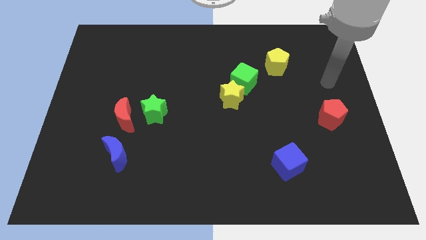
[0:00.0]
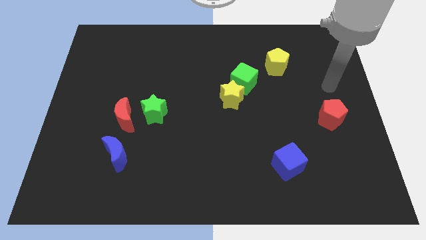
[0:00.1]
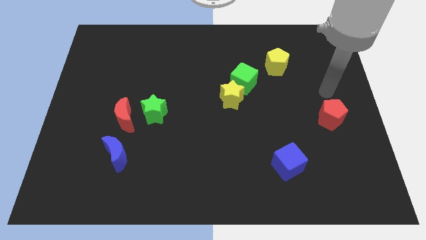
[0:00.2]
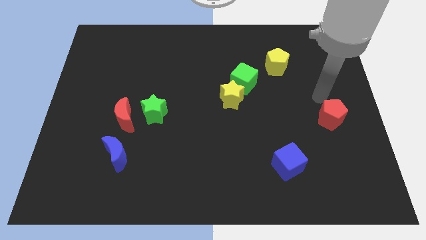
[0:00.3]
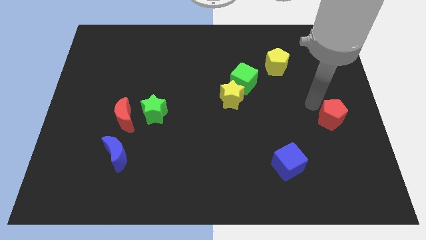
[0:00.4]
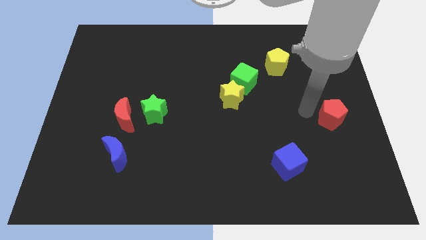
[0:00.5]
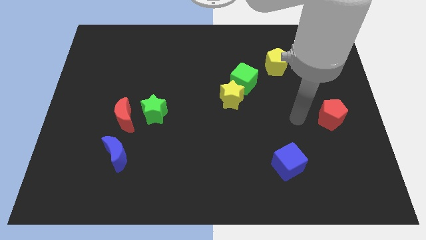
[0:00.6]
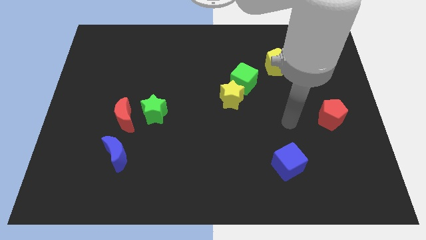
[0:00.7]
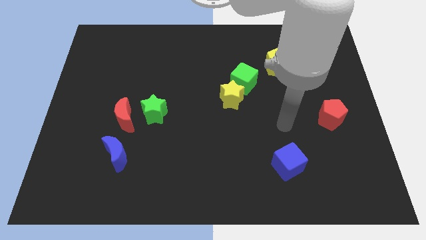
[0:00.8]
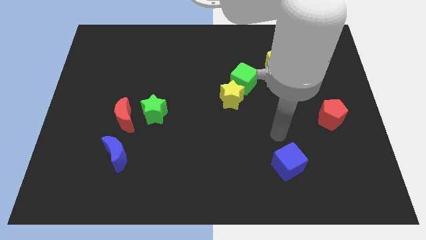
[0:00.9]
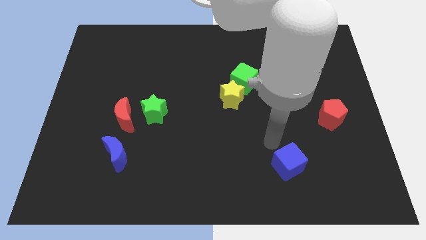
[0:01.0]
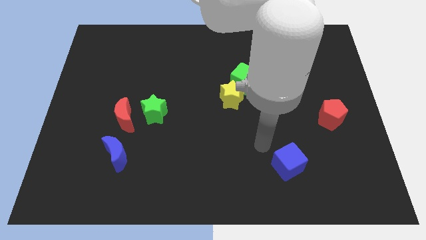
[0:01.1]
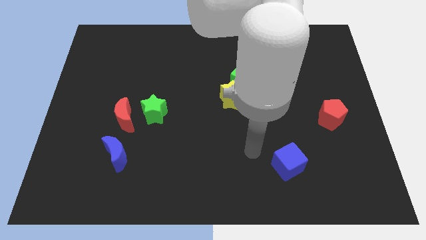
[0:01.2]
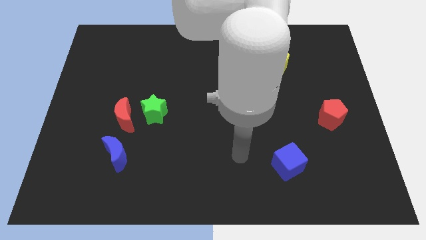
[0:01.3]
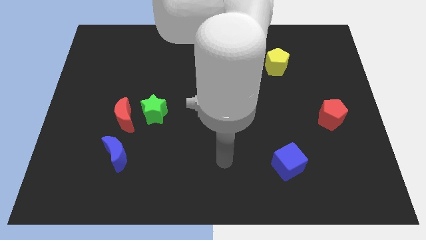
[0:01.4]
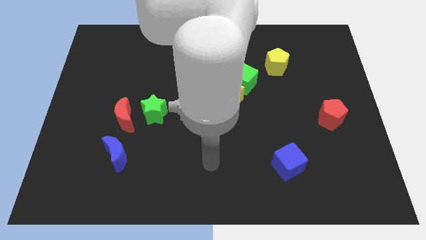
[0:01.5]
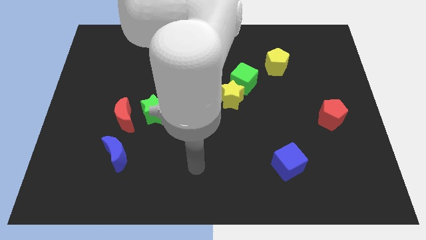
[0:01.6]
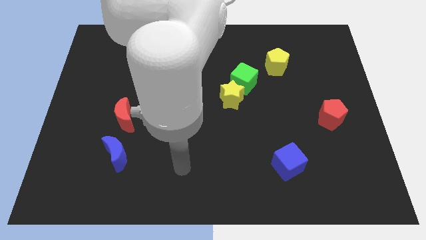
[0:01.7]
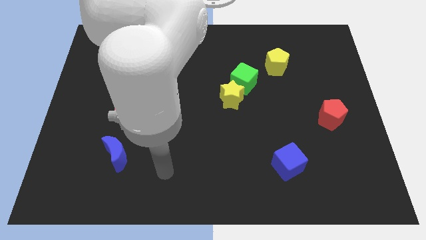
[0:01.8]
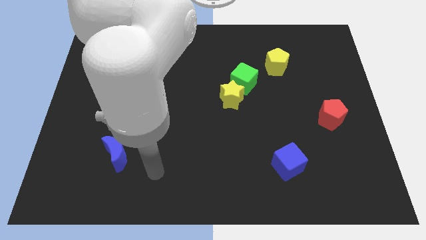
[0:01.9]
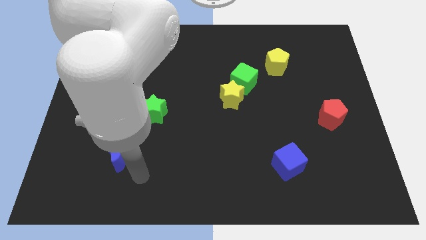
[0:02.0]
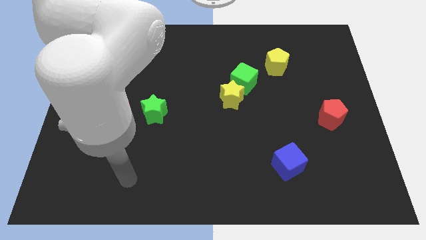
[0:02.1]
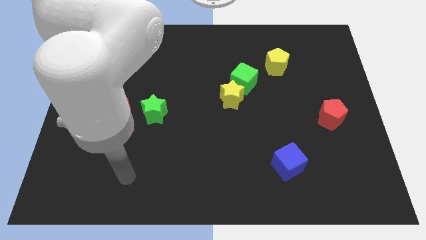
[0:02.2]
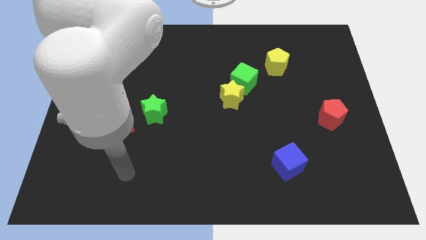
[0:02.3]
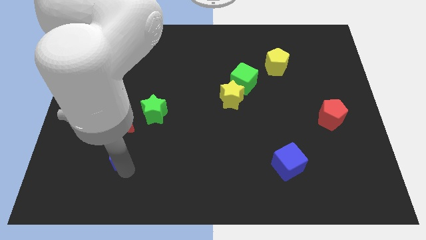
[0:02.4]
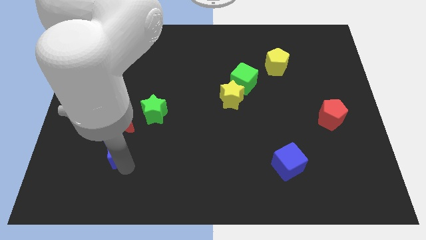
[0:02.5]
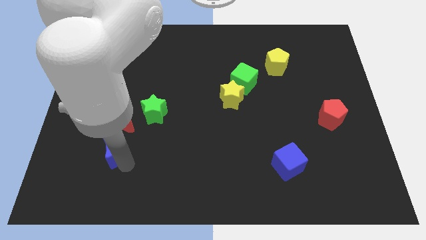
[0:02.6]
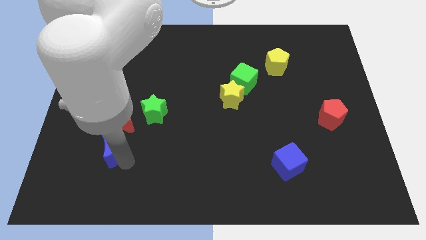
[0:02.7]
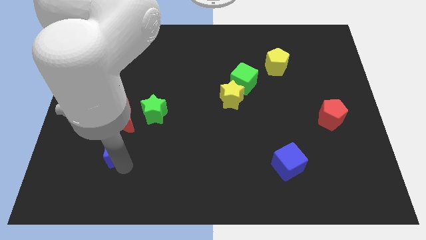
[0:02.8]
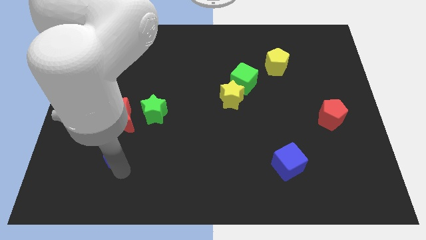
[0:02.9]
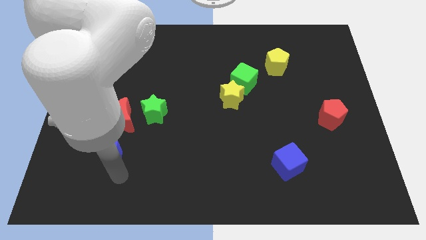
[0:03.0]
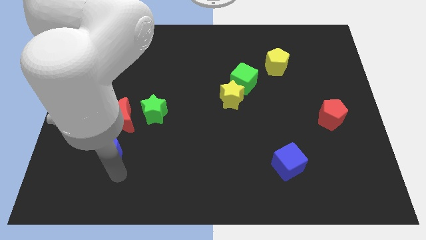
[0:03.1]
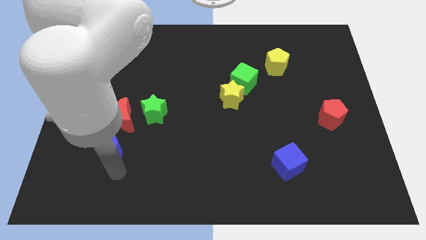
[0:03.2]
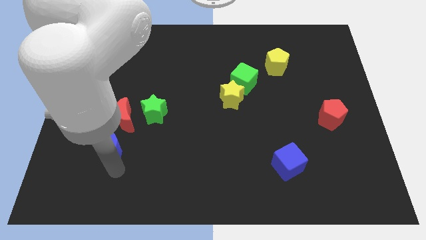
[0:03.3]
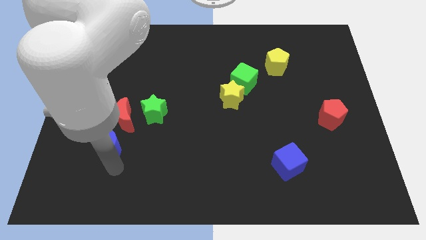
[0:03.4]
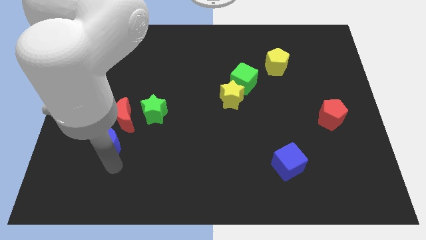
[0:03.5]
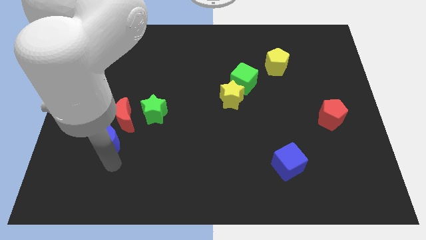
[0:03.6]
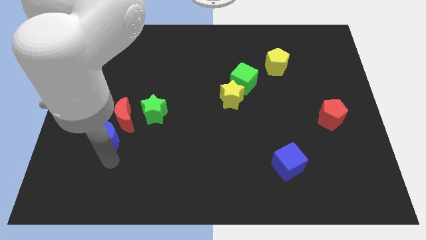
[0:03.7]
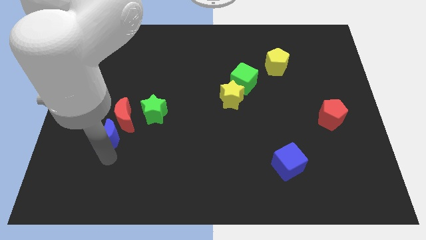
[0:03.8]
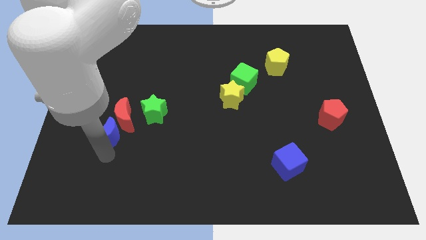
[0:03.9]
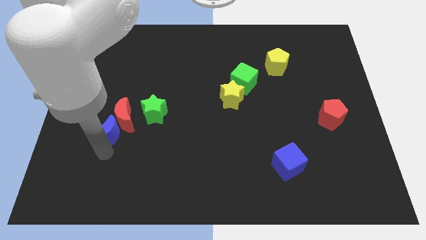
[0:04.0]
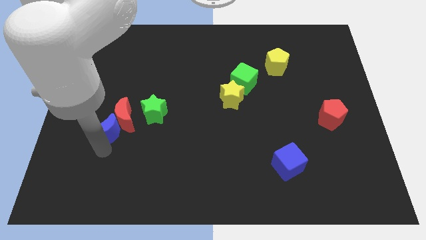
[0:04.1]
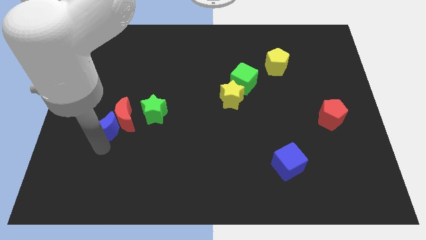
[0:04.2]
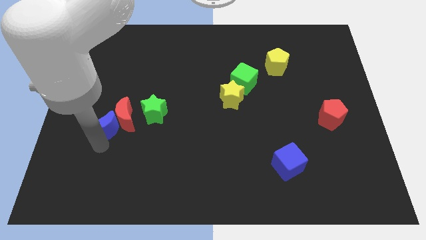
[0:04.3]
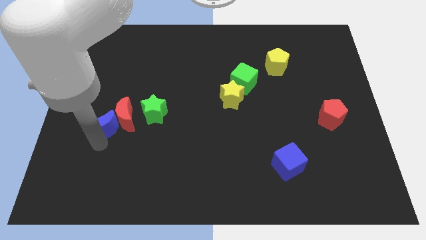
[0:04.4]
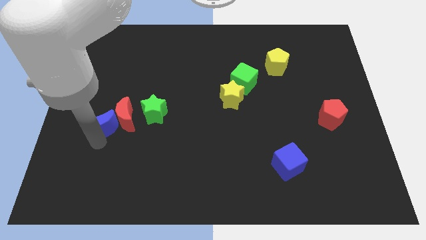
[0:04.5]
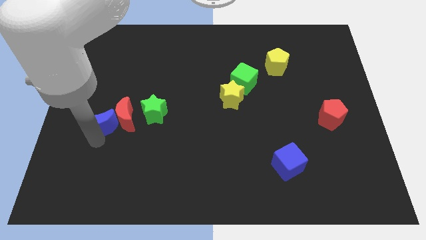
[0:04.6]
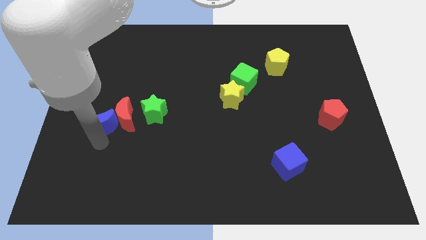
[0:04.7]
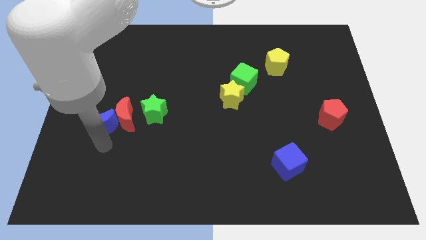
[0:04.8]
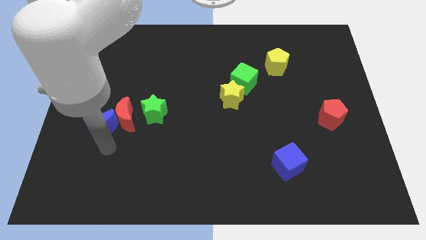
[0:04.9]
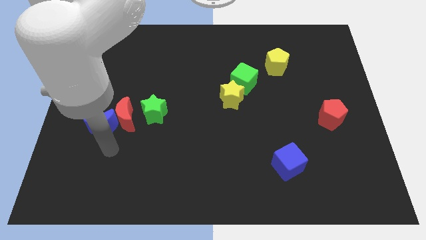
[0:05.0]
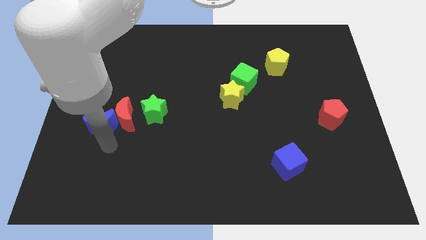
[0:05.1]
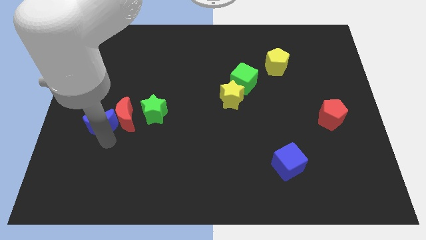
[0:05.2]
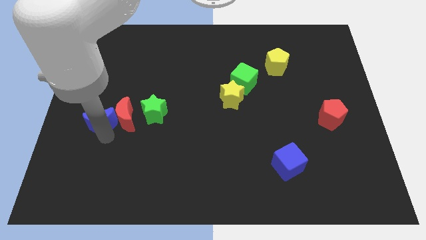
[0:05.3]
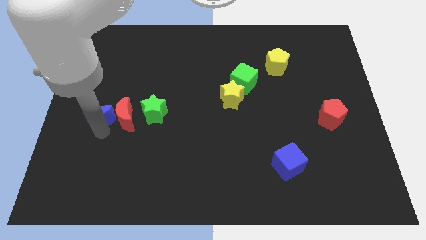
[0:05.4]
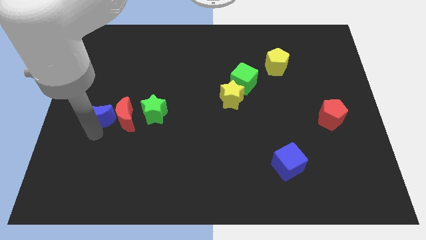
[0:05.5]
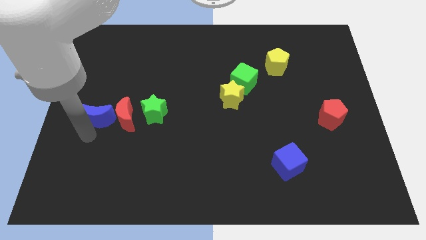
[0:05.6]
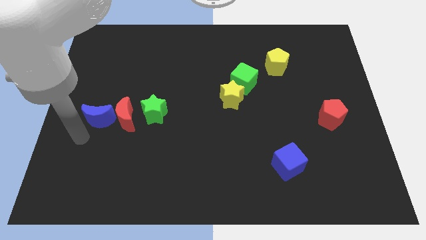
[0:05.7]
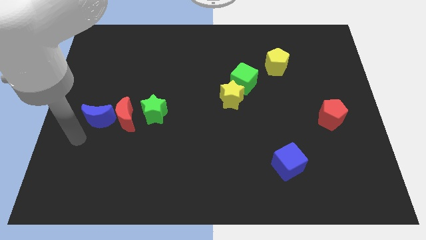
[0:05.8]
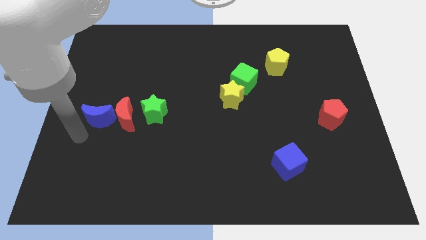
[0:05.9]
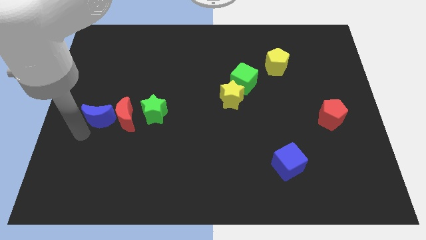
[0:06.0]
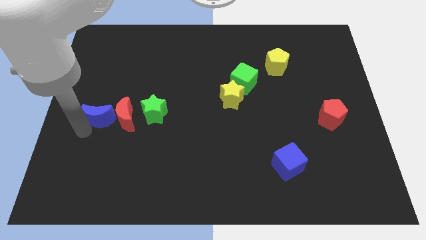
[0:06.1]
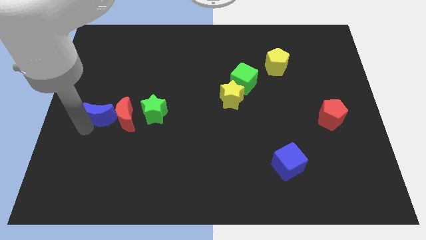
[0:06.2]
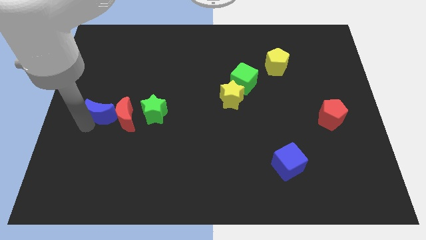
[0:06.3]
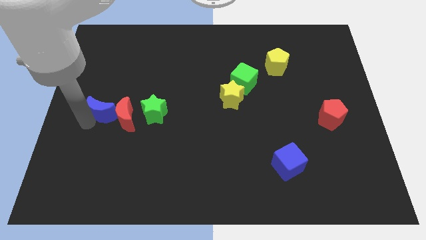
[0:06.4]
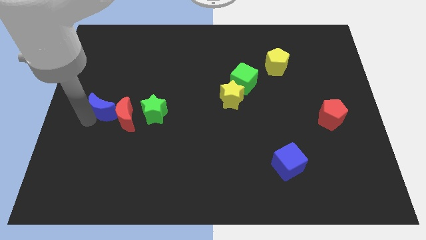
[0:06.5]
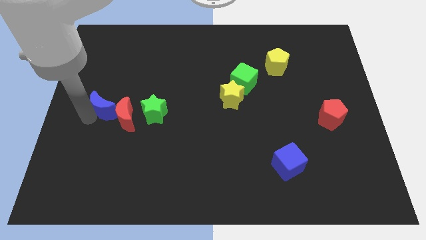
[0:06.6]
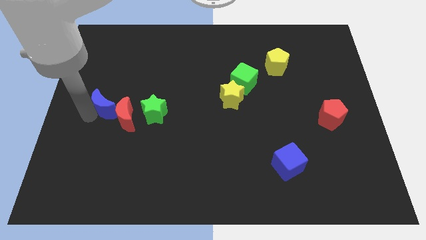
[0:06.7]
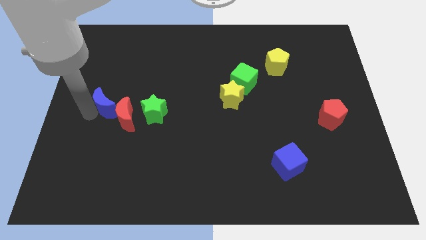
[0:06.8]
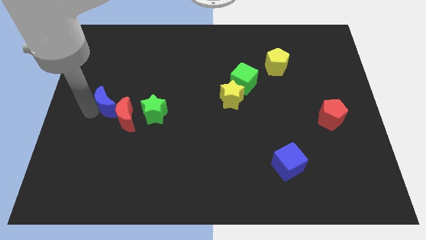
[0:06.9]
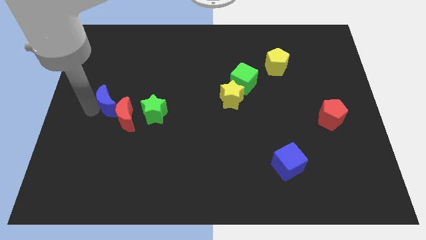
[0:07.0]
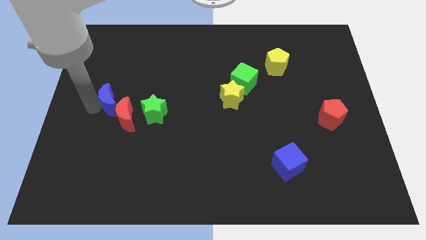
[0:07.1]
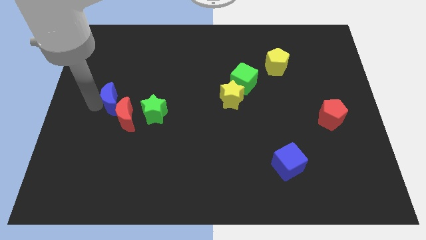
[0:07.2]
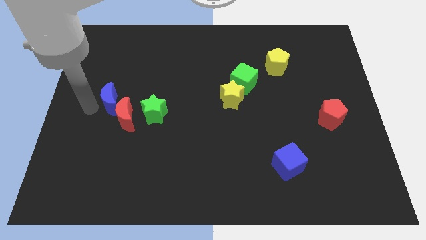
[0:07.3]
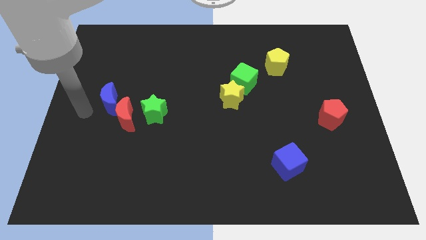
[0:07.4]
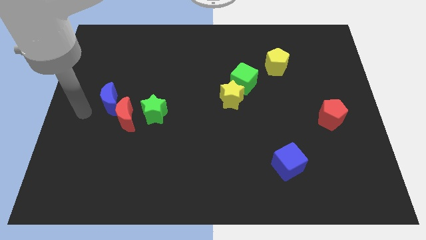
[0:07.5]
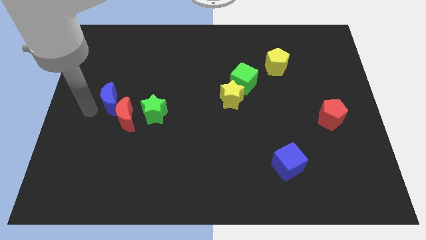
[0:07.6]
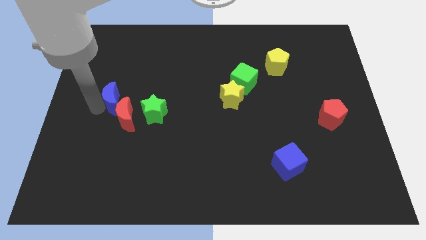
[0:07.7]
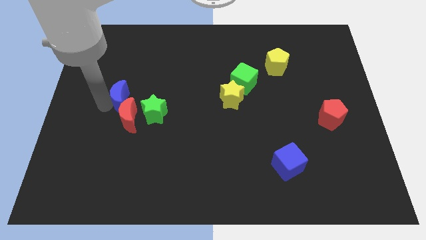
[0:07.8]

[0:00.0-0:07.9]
move the blue moon diagonally up and to the left of the green star
